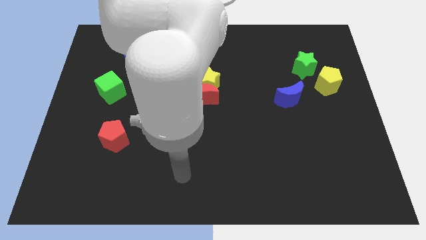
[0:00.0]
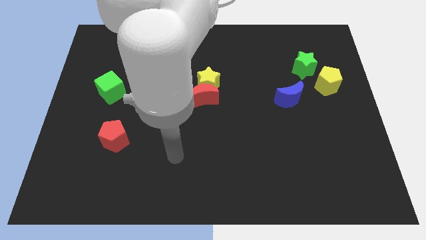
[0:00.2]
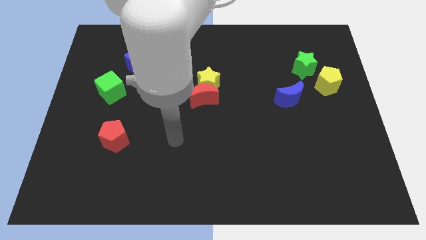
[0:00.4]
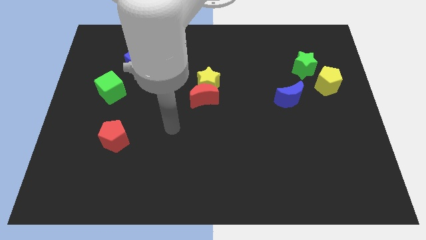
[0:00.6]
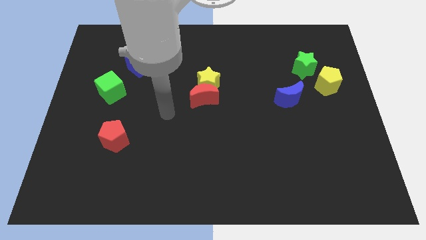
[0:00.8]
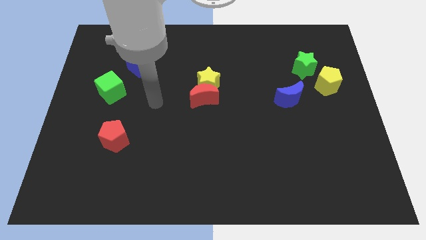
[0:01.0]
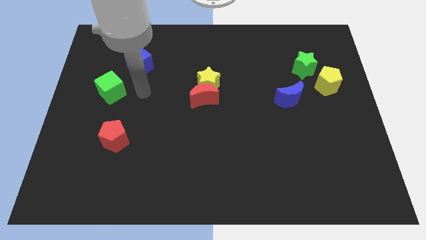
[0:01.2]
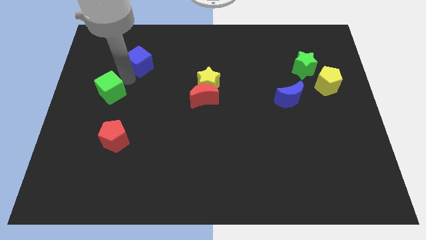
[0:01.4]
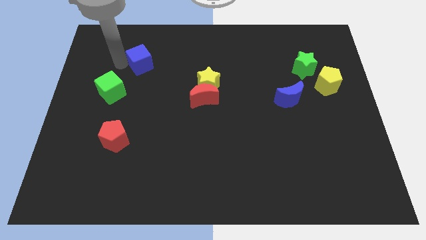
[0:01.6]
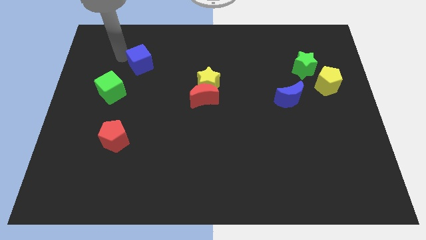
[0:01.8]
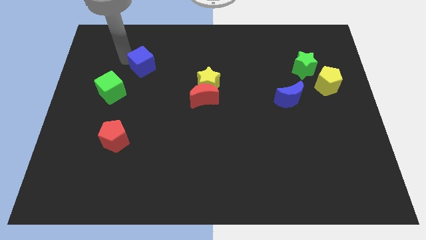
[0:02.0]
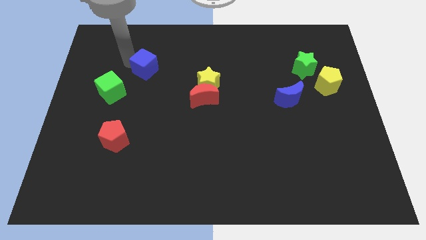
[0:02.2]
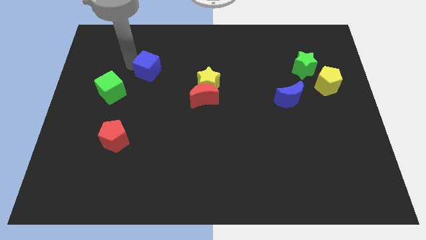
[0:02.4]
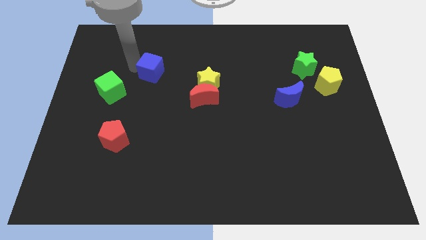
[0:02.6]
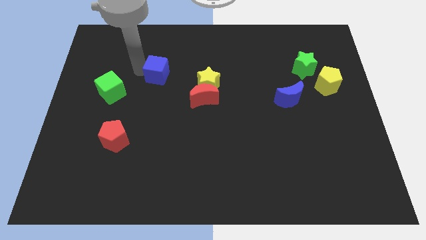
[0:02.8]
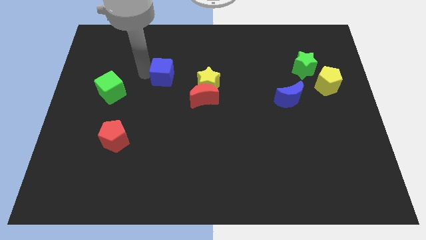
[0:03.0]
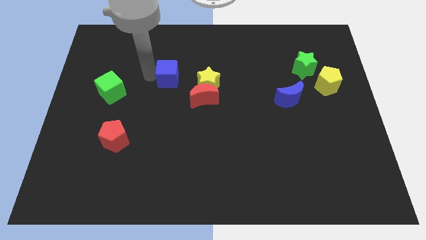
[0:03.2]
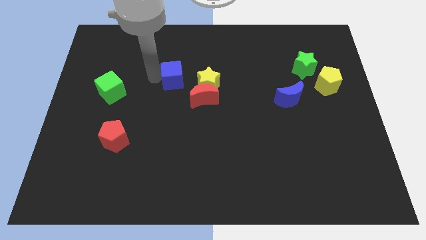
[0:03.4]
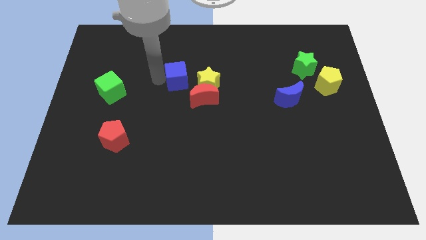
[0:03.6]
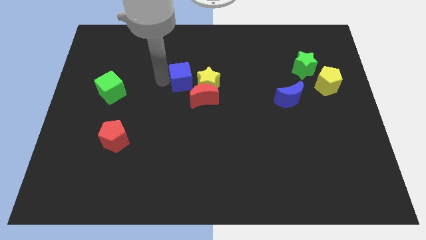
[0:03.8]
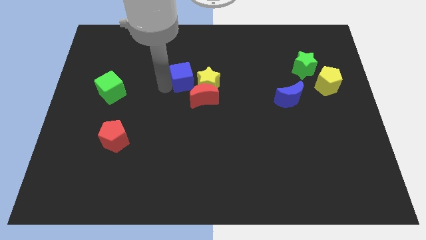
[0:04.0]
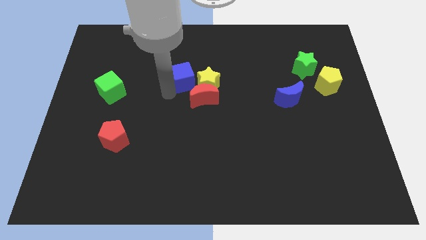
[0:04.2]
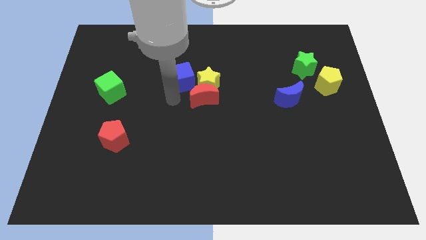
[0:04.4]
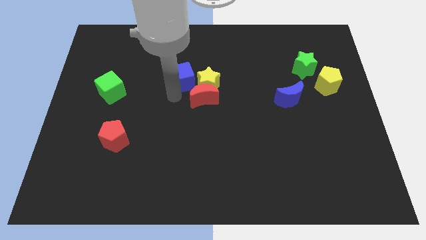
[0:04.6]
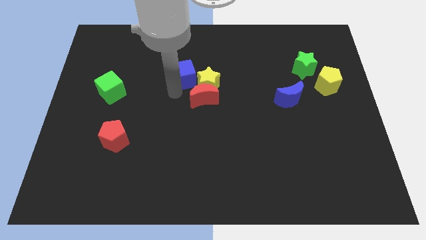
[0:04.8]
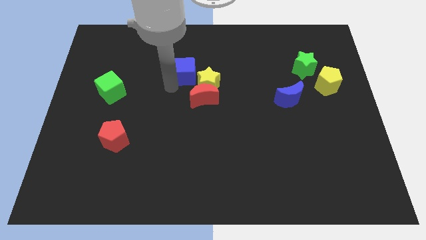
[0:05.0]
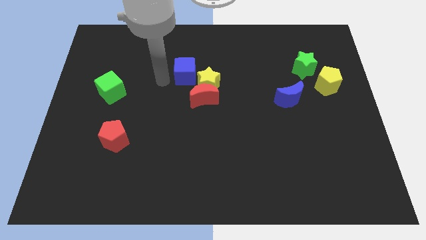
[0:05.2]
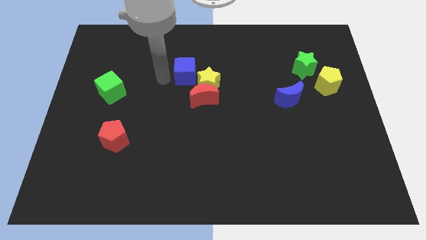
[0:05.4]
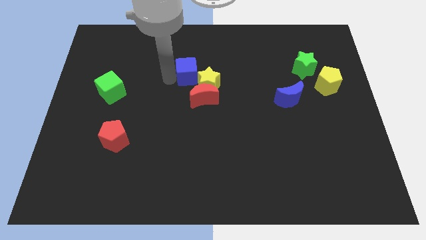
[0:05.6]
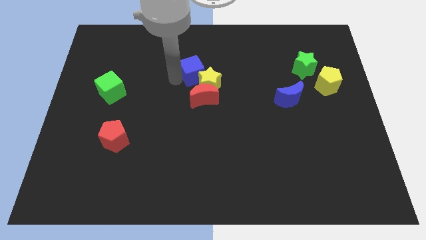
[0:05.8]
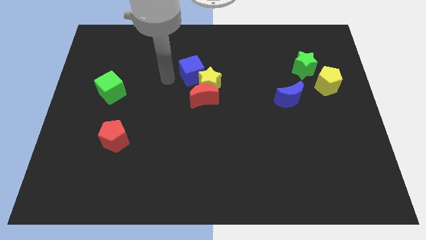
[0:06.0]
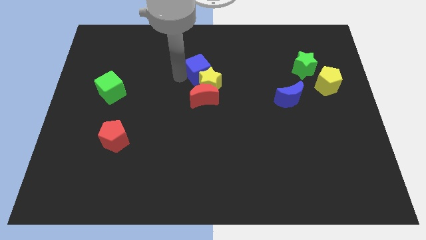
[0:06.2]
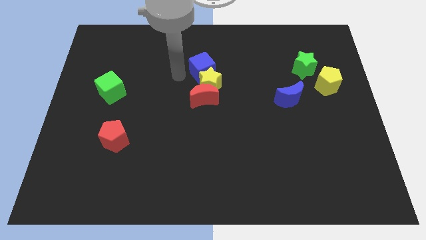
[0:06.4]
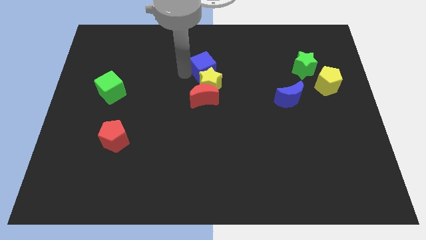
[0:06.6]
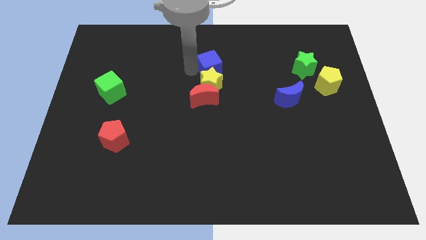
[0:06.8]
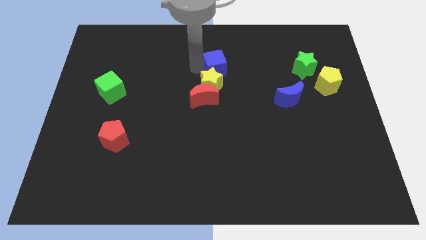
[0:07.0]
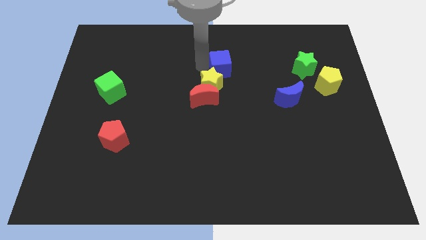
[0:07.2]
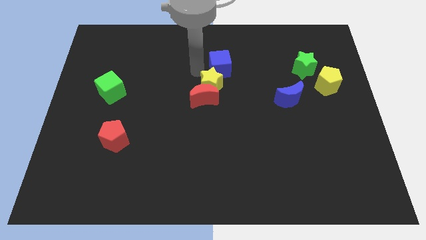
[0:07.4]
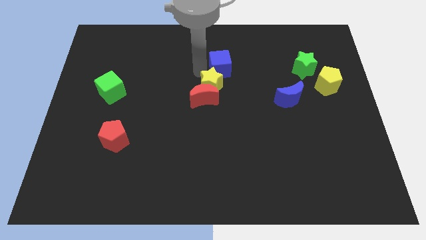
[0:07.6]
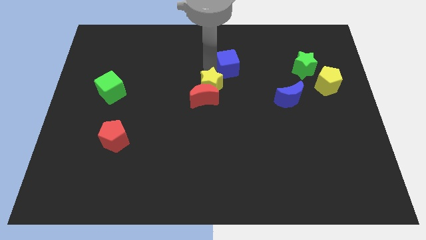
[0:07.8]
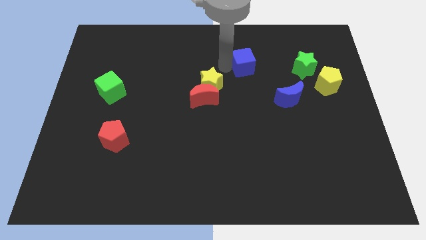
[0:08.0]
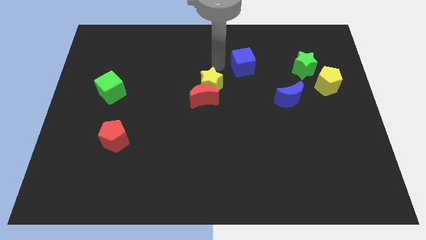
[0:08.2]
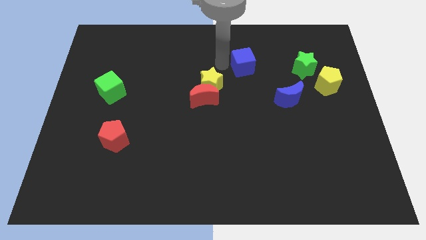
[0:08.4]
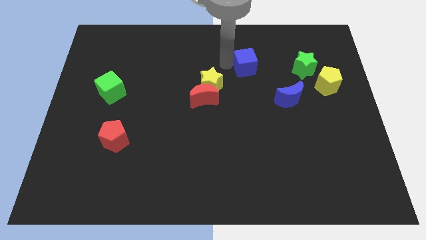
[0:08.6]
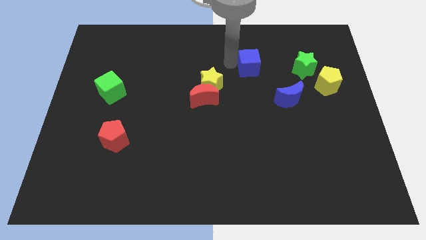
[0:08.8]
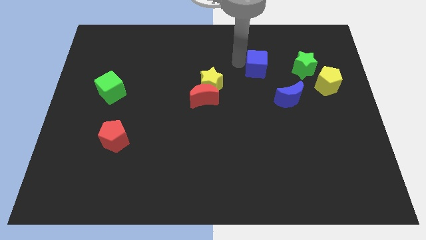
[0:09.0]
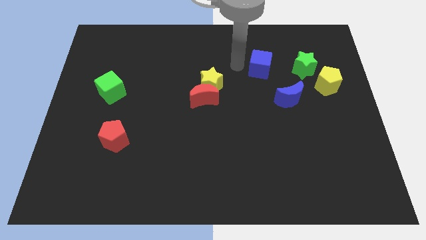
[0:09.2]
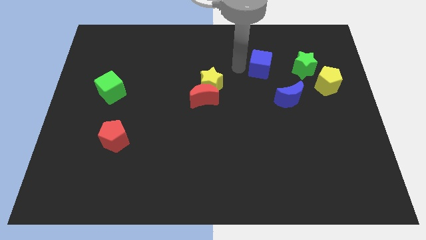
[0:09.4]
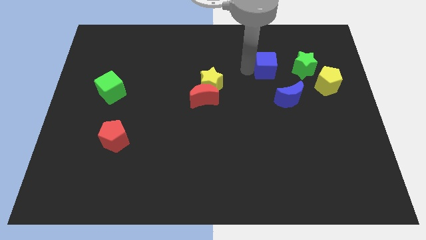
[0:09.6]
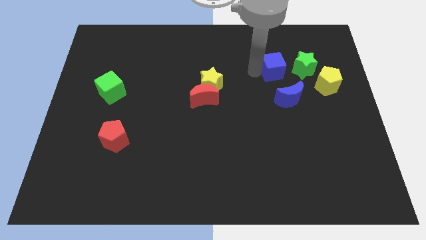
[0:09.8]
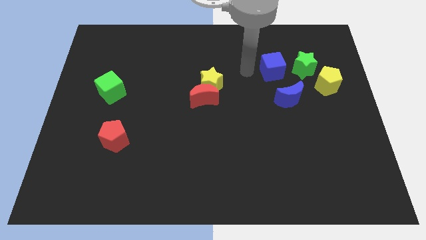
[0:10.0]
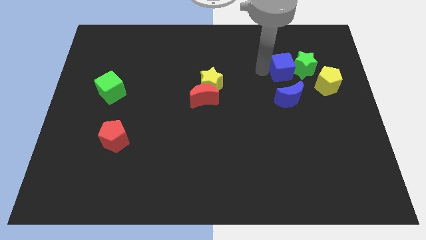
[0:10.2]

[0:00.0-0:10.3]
slide the blue cube next to the green star

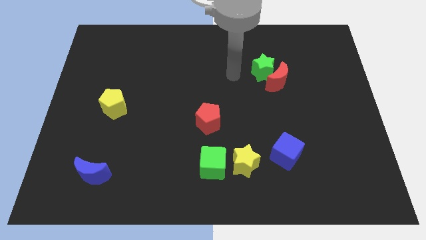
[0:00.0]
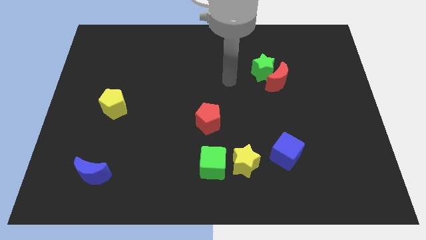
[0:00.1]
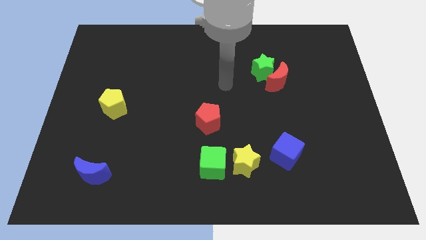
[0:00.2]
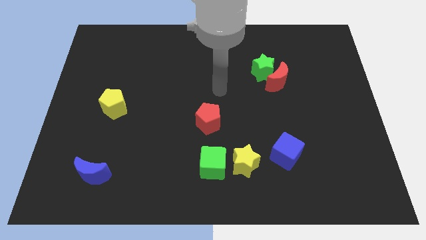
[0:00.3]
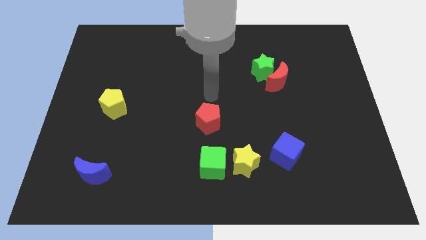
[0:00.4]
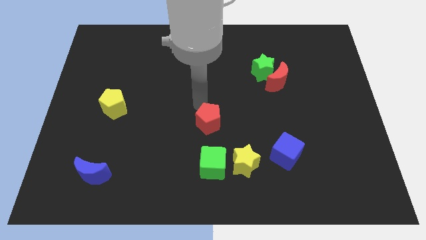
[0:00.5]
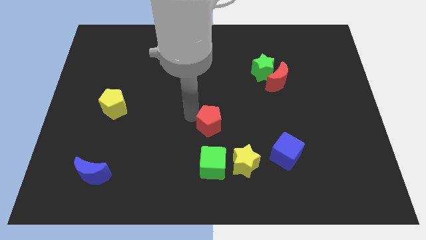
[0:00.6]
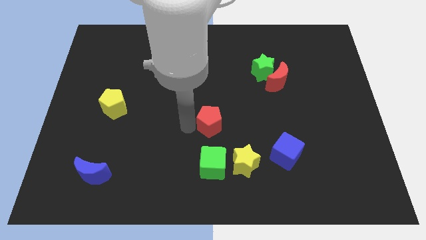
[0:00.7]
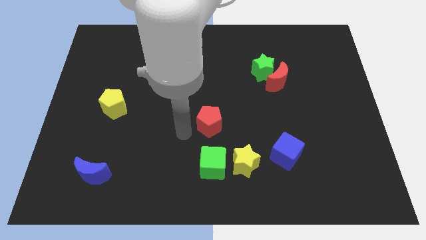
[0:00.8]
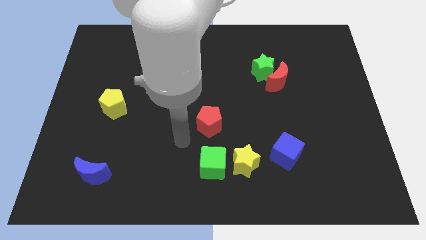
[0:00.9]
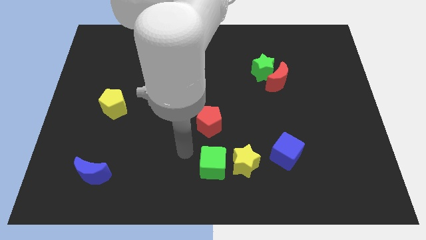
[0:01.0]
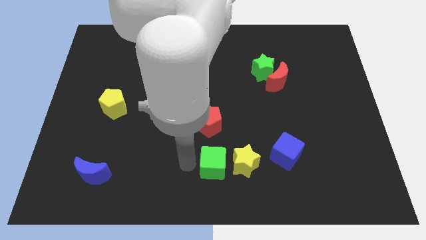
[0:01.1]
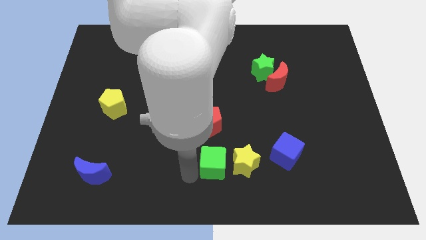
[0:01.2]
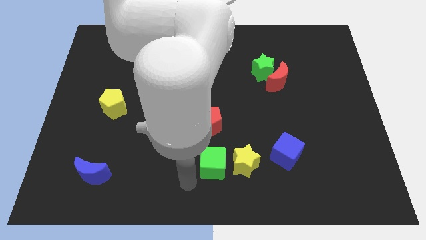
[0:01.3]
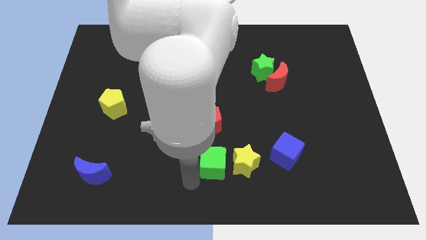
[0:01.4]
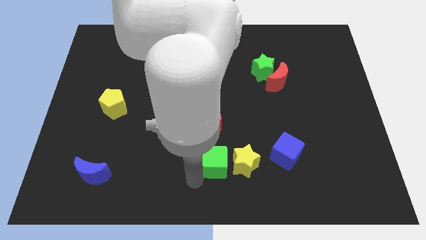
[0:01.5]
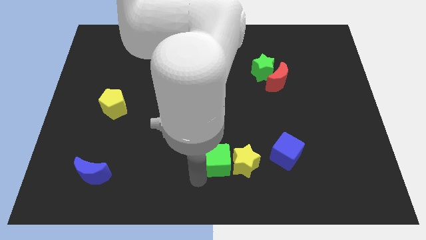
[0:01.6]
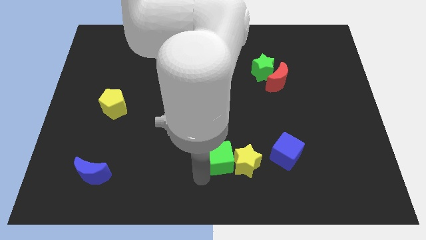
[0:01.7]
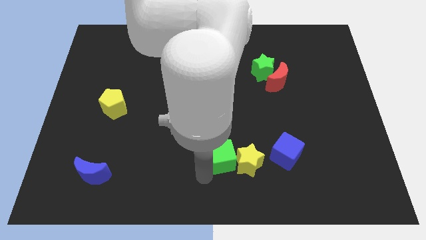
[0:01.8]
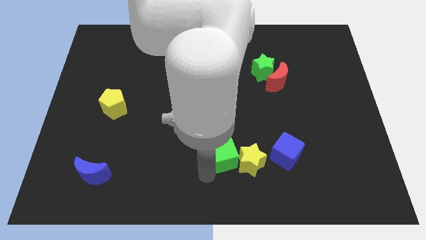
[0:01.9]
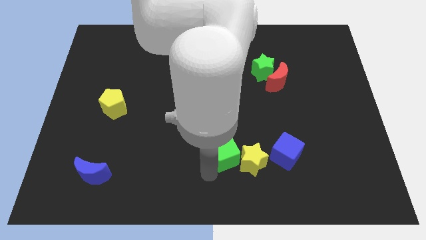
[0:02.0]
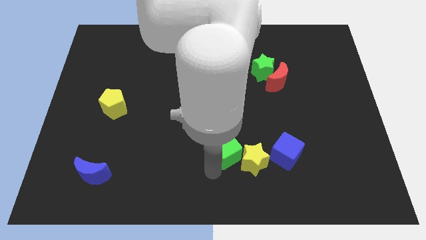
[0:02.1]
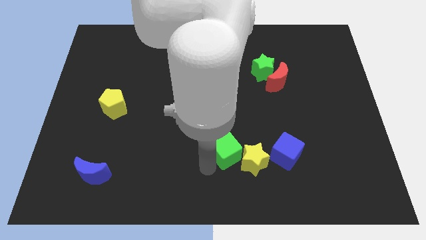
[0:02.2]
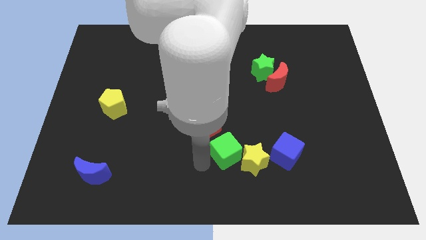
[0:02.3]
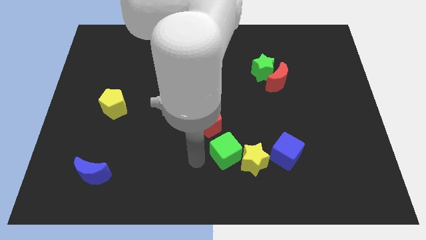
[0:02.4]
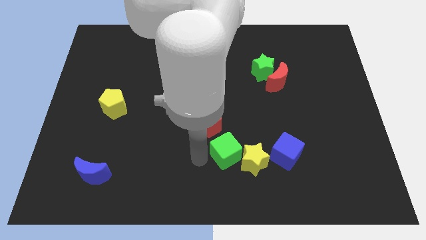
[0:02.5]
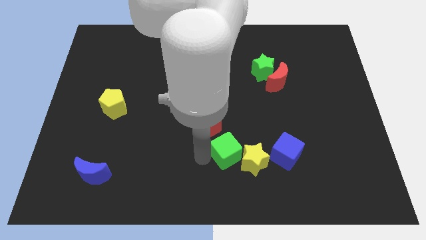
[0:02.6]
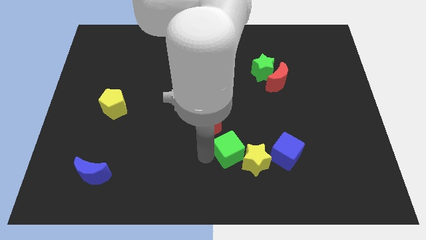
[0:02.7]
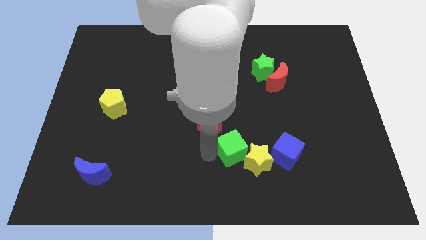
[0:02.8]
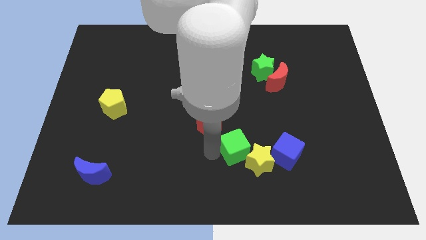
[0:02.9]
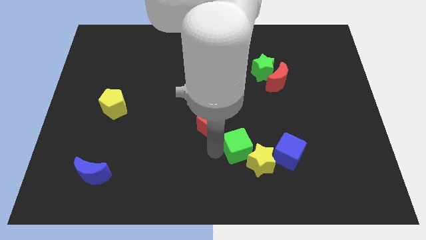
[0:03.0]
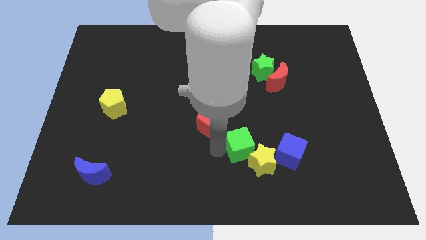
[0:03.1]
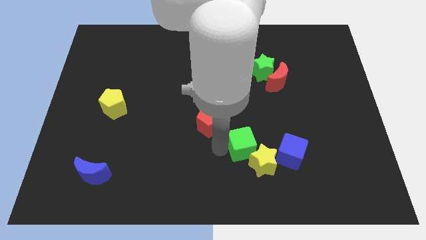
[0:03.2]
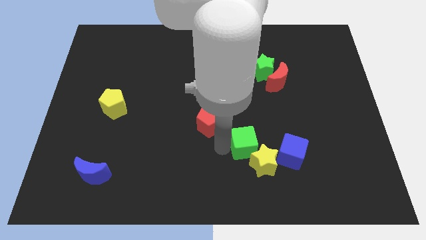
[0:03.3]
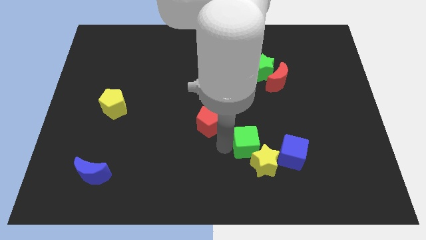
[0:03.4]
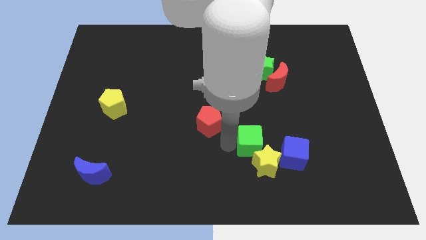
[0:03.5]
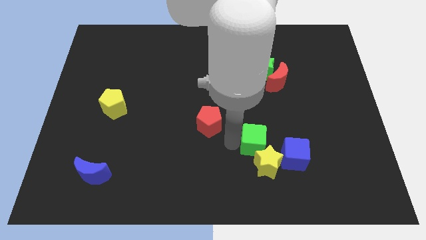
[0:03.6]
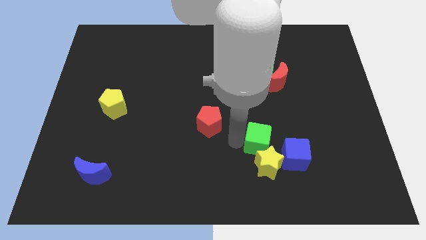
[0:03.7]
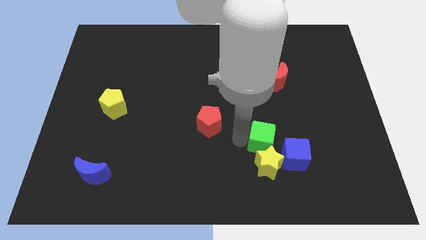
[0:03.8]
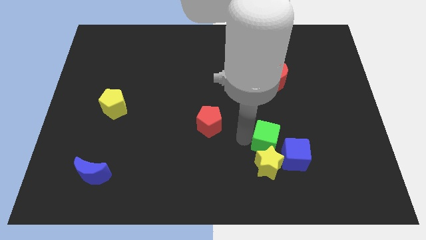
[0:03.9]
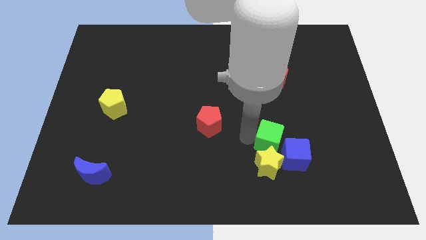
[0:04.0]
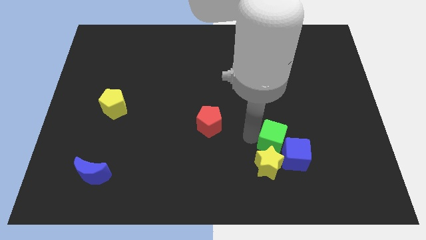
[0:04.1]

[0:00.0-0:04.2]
push the green cube to the blue cube
